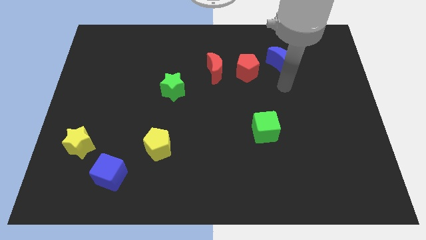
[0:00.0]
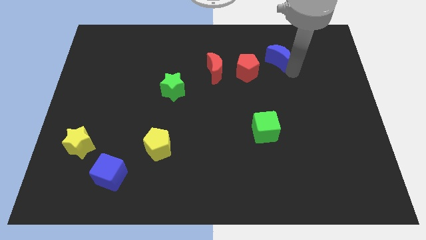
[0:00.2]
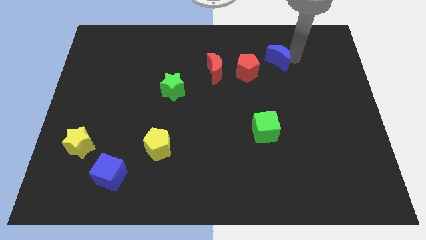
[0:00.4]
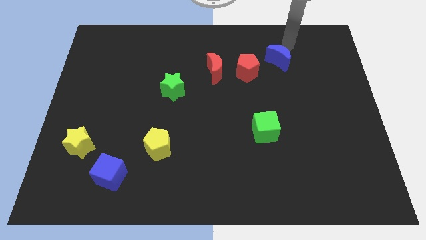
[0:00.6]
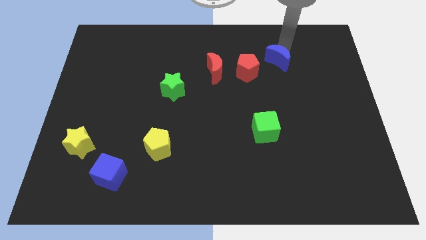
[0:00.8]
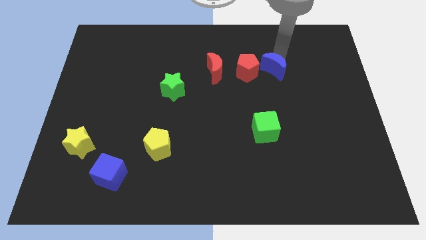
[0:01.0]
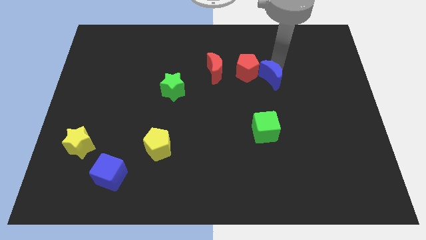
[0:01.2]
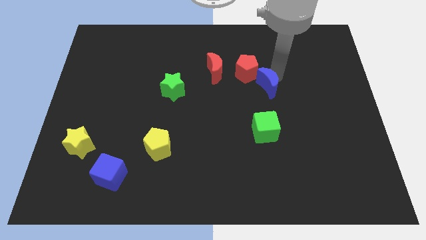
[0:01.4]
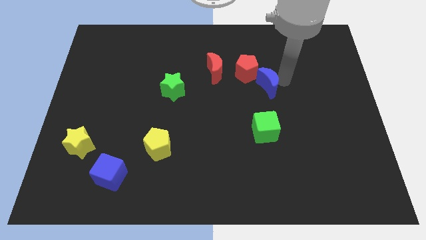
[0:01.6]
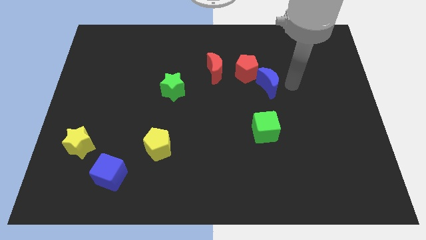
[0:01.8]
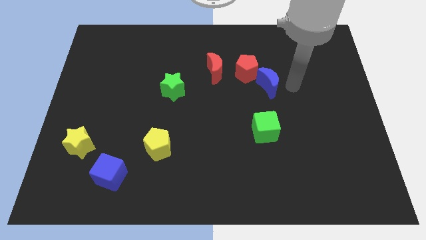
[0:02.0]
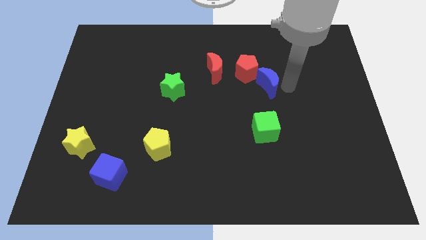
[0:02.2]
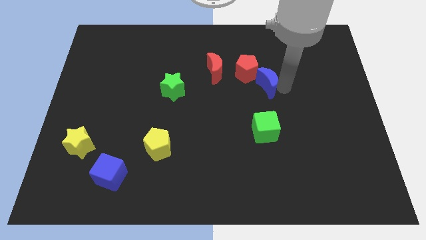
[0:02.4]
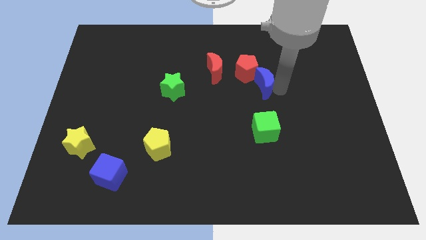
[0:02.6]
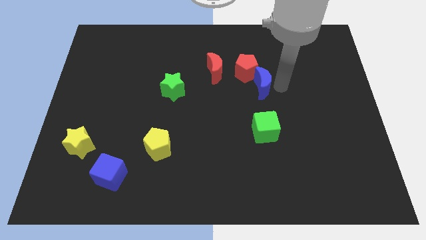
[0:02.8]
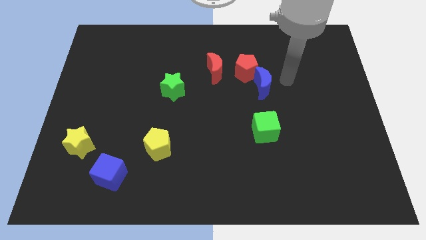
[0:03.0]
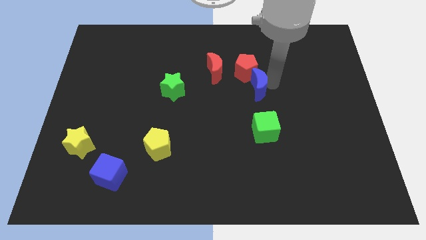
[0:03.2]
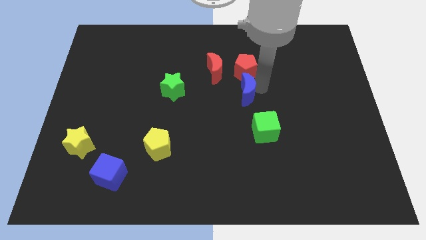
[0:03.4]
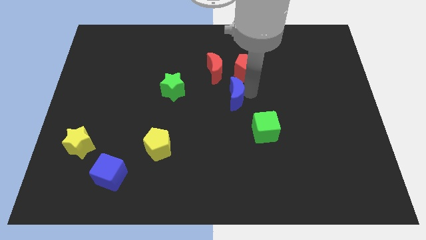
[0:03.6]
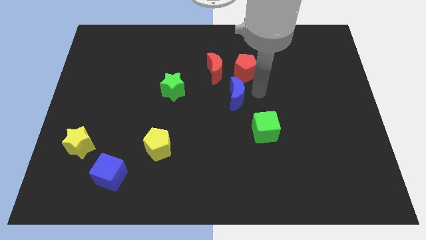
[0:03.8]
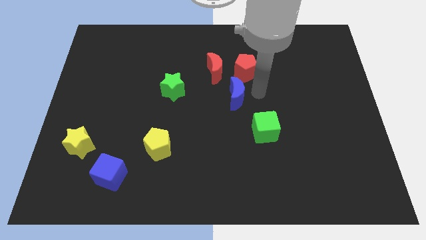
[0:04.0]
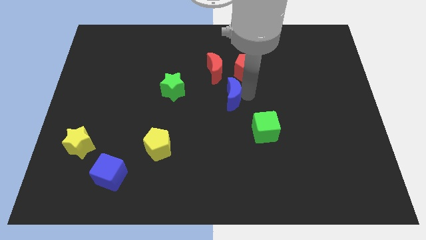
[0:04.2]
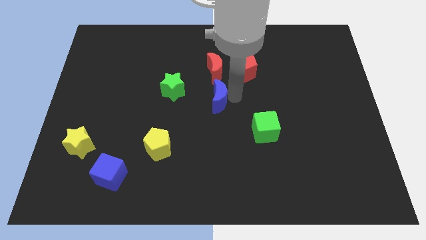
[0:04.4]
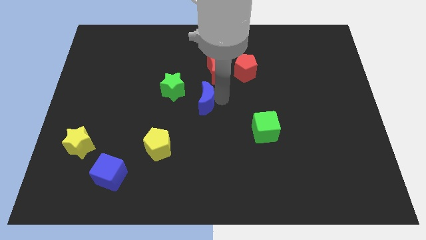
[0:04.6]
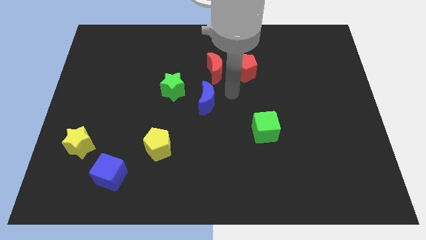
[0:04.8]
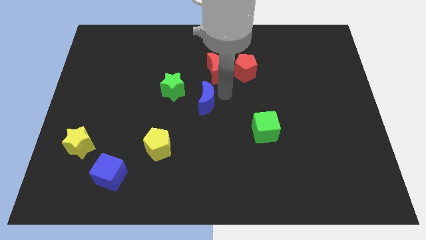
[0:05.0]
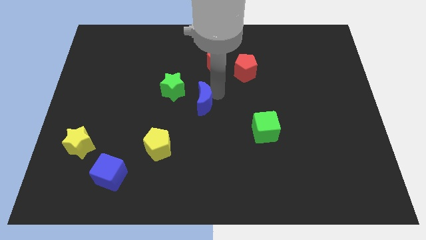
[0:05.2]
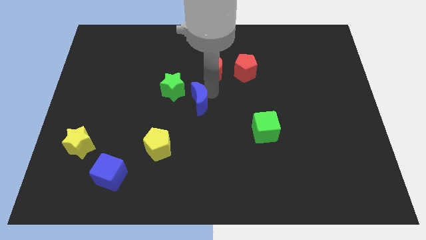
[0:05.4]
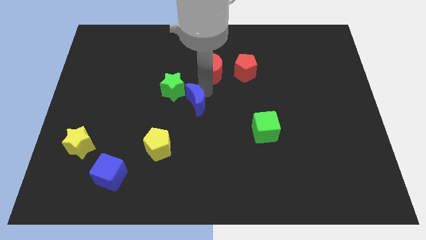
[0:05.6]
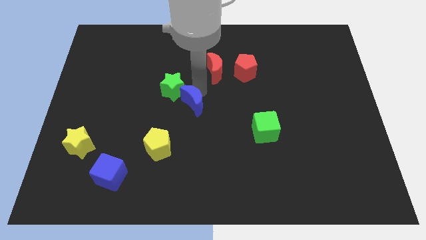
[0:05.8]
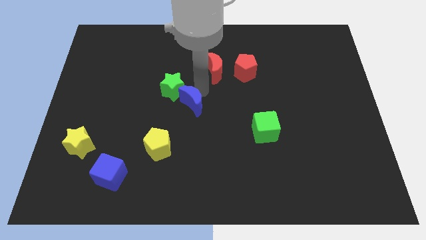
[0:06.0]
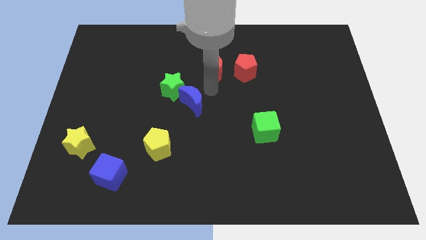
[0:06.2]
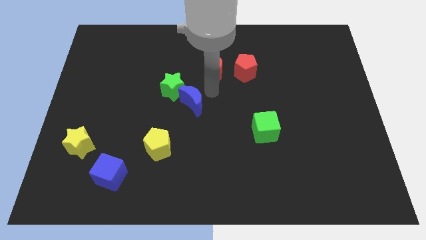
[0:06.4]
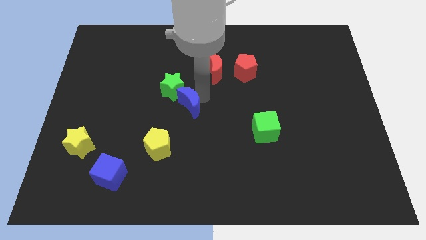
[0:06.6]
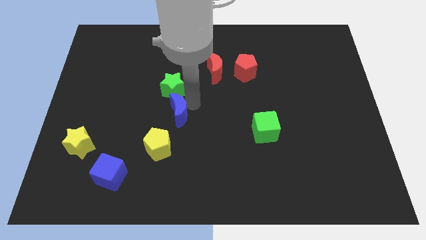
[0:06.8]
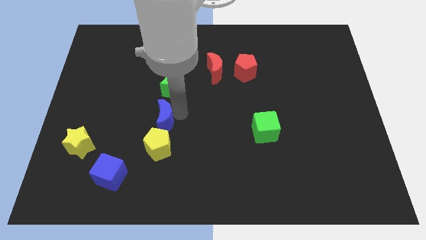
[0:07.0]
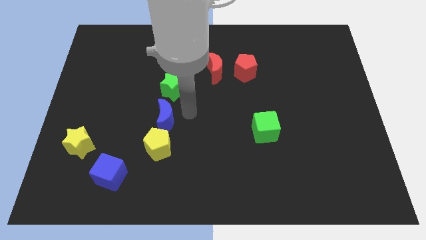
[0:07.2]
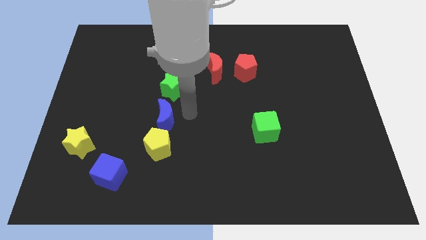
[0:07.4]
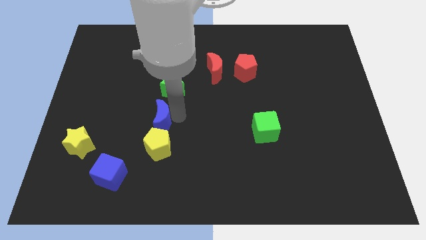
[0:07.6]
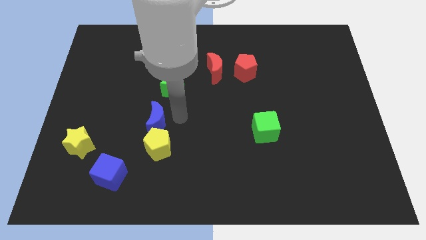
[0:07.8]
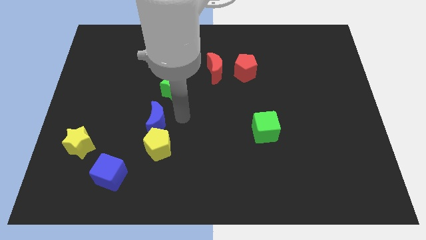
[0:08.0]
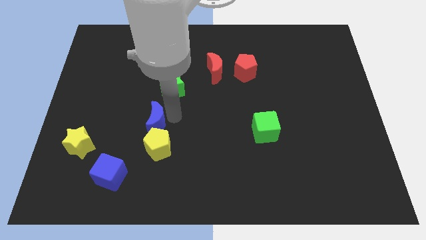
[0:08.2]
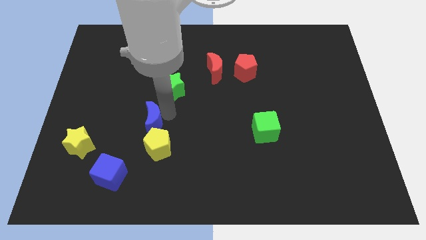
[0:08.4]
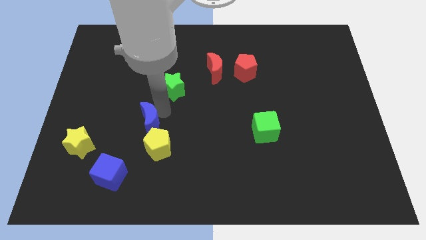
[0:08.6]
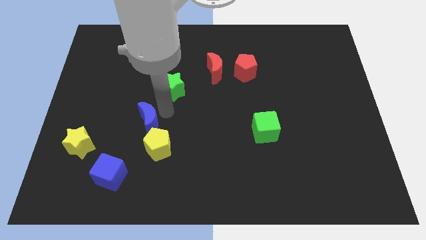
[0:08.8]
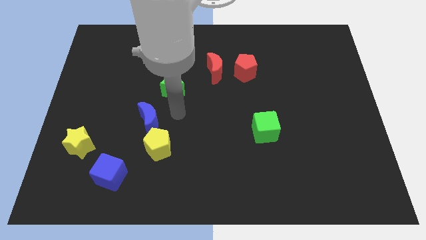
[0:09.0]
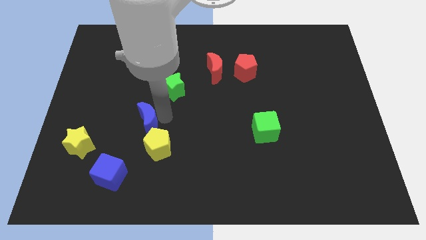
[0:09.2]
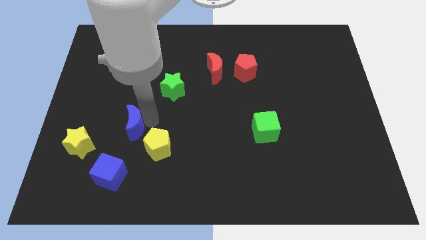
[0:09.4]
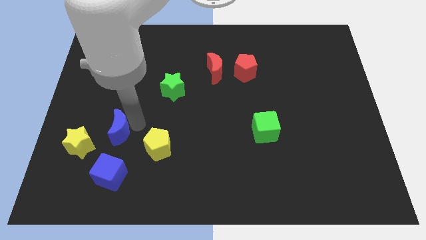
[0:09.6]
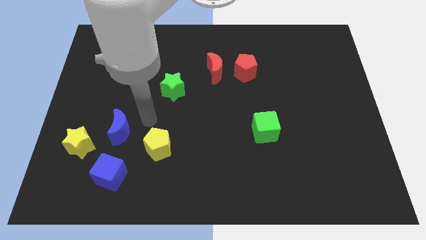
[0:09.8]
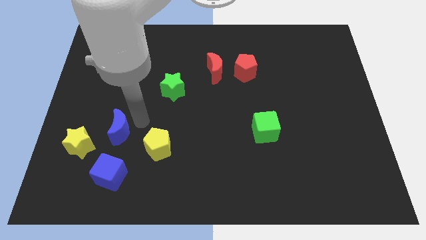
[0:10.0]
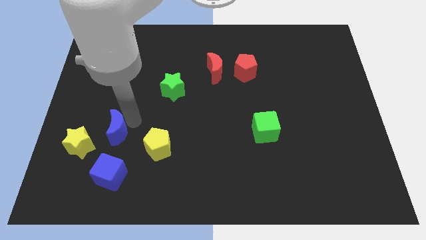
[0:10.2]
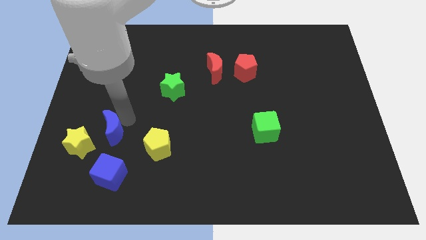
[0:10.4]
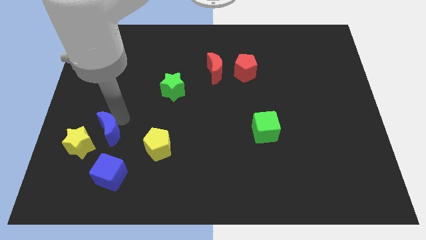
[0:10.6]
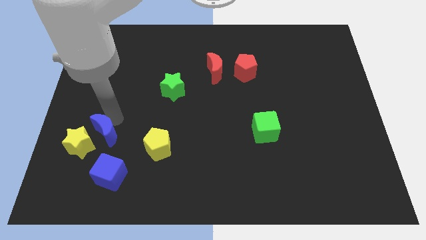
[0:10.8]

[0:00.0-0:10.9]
put the blue moon to the yellow star

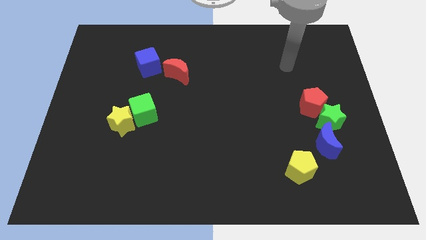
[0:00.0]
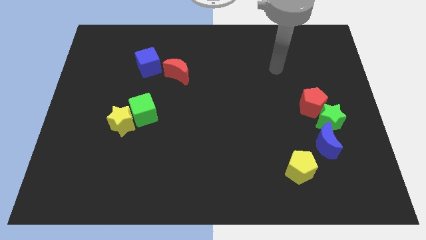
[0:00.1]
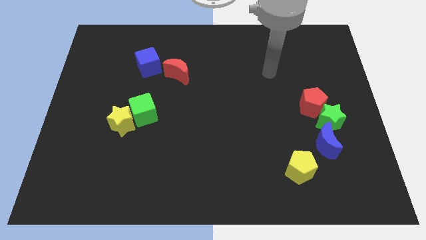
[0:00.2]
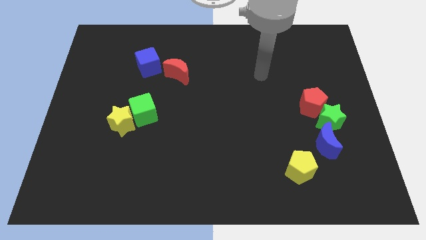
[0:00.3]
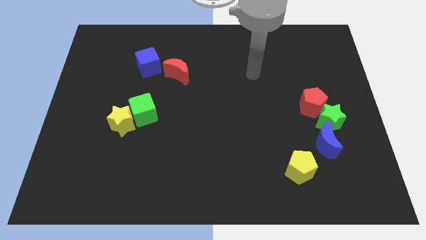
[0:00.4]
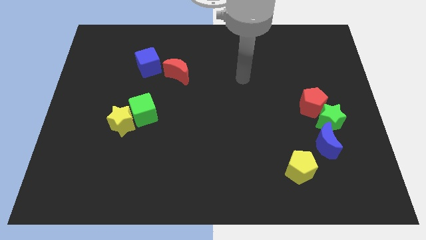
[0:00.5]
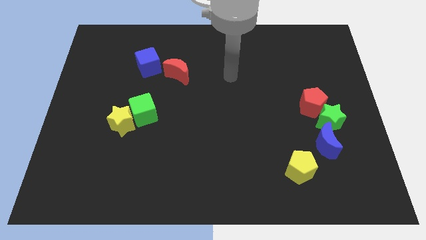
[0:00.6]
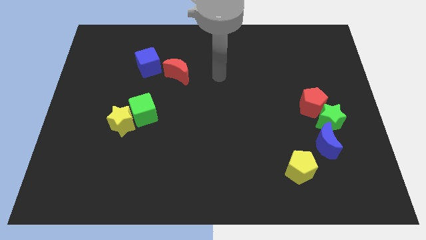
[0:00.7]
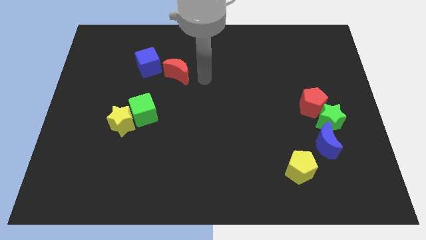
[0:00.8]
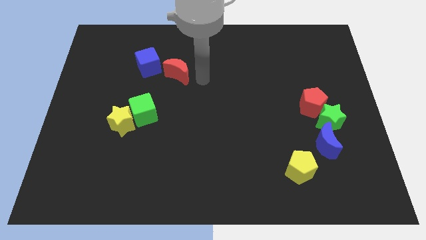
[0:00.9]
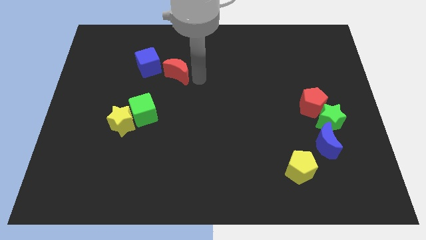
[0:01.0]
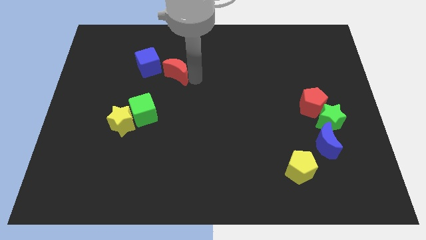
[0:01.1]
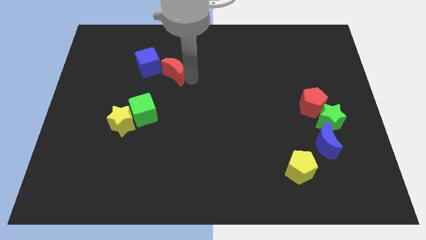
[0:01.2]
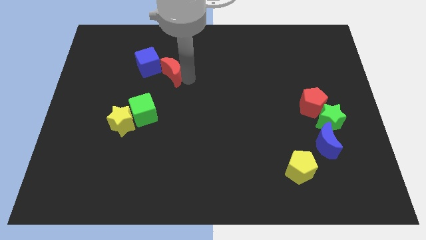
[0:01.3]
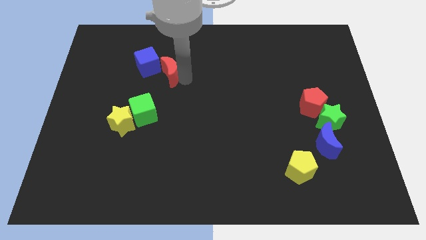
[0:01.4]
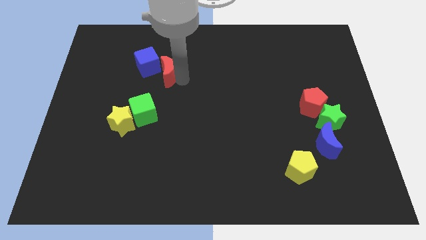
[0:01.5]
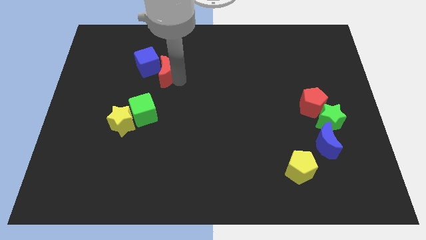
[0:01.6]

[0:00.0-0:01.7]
slide the red moon close to the blue cube
